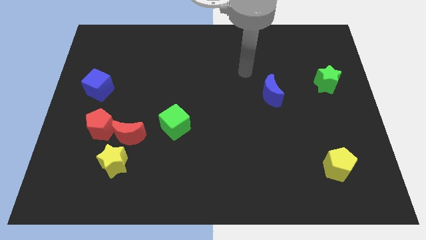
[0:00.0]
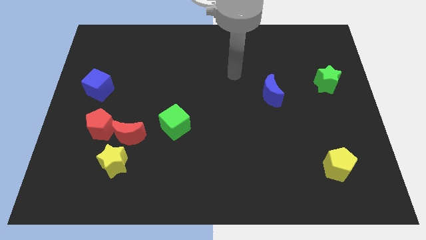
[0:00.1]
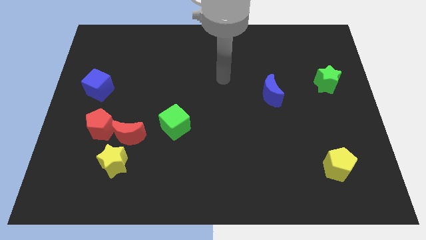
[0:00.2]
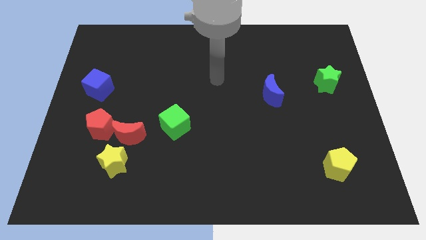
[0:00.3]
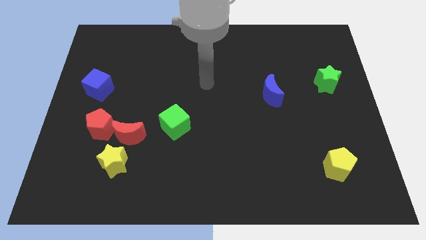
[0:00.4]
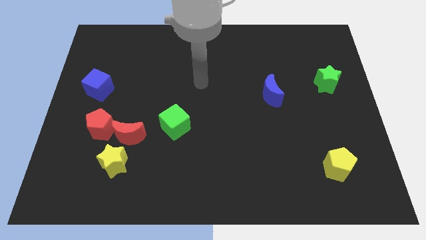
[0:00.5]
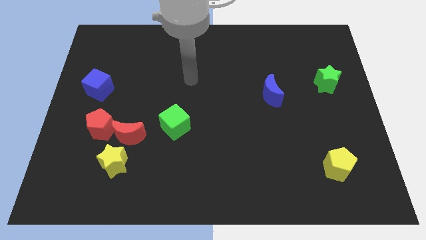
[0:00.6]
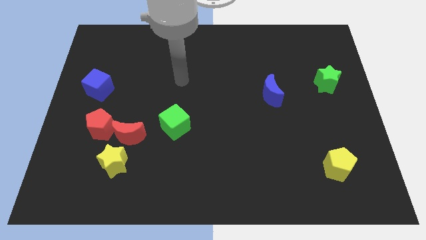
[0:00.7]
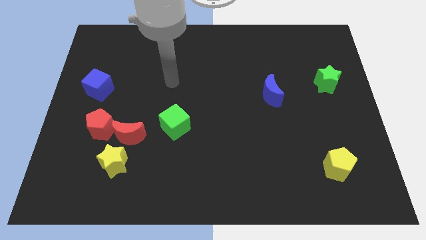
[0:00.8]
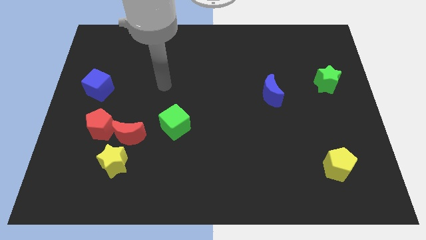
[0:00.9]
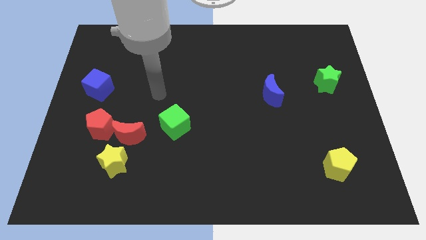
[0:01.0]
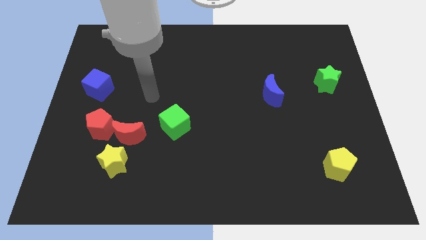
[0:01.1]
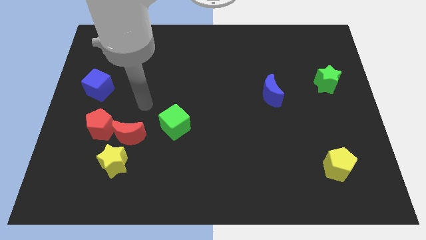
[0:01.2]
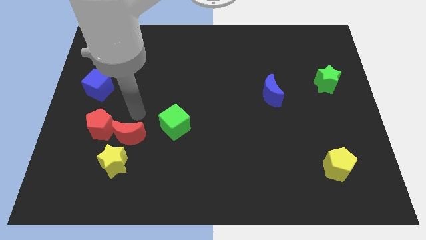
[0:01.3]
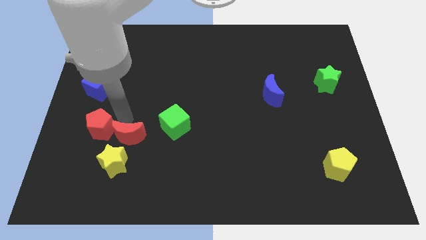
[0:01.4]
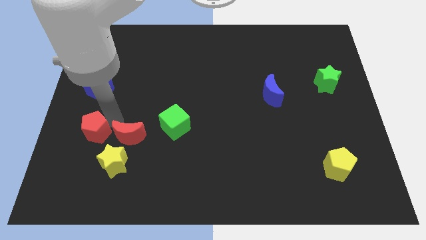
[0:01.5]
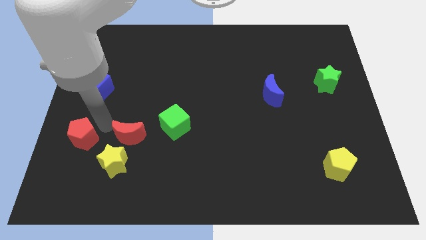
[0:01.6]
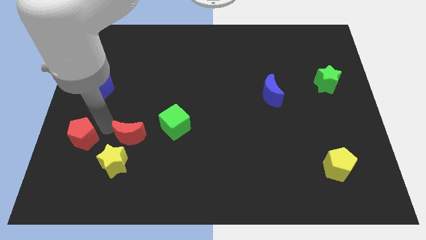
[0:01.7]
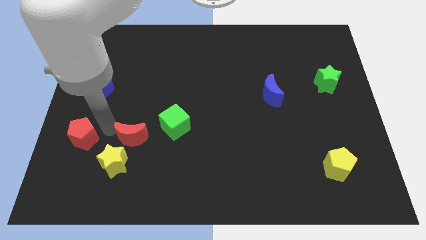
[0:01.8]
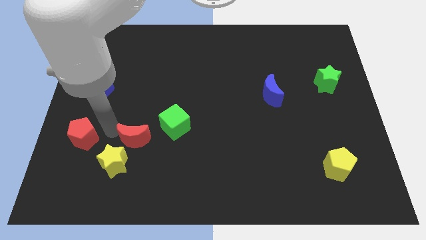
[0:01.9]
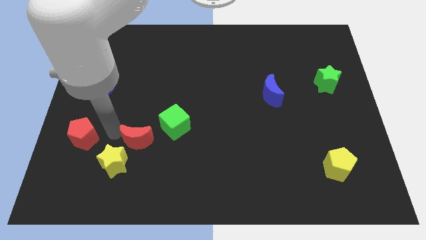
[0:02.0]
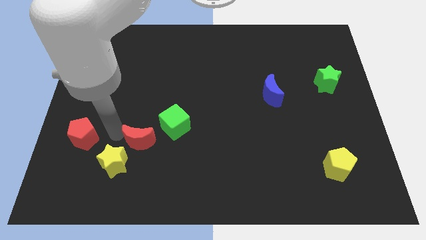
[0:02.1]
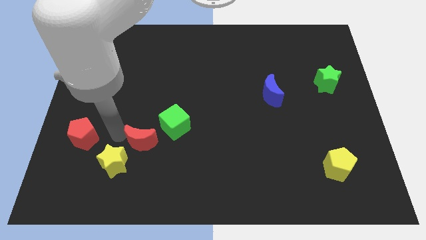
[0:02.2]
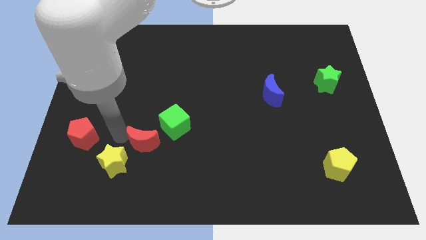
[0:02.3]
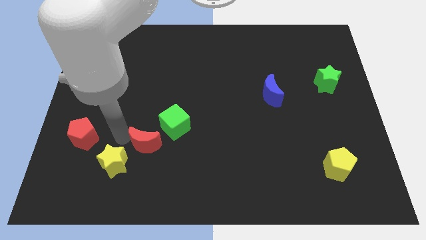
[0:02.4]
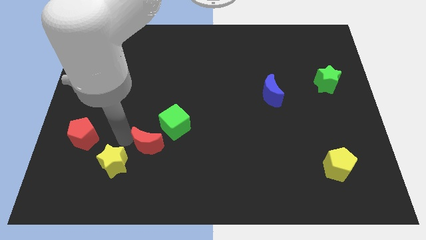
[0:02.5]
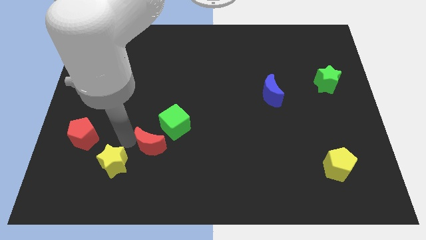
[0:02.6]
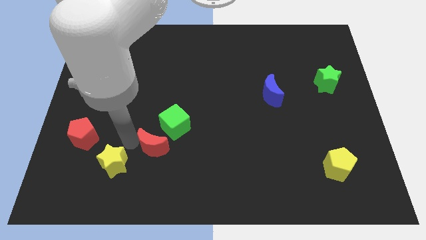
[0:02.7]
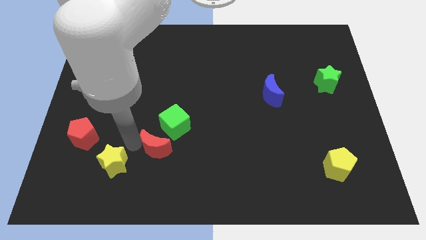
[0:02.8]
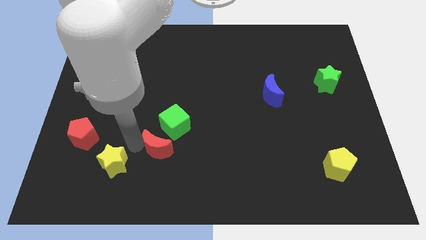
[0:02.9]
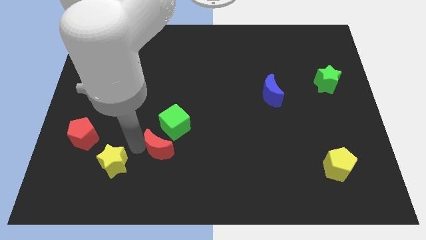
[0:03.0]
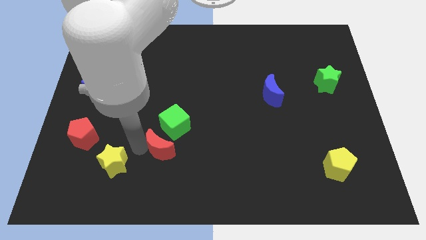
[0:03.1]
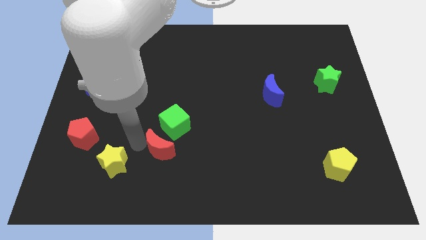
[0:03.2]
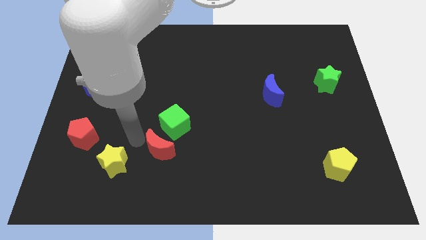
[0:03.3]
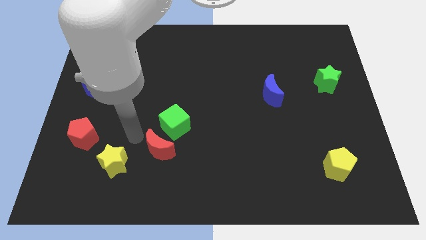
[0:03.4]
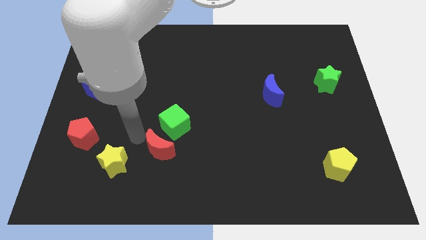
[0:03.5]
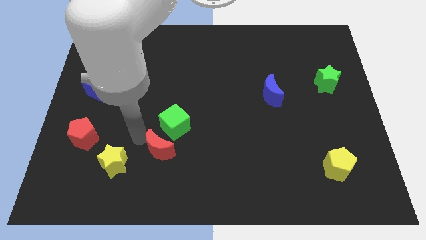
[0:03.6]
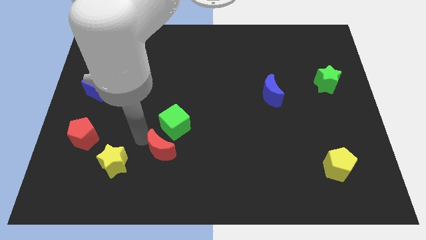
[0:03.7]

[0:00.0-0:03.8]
move the red moon to the right a little

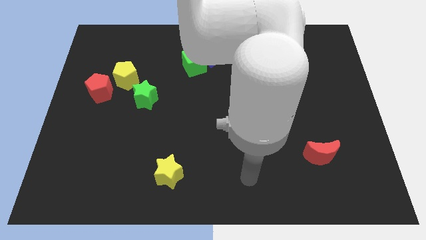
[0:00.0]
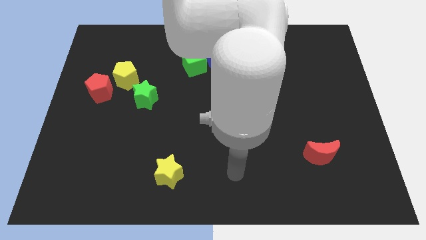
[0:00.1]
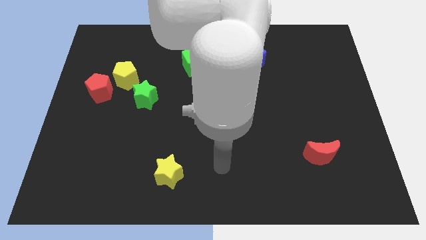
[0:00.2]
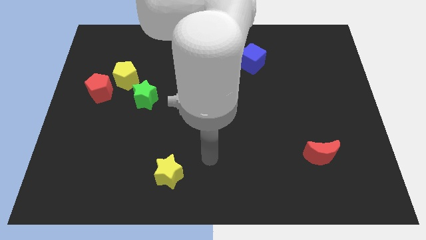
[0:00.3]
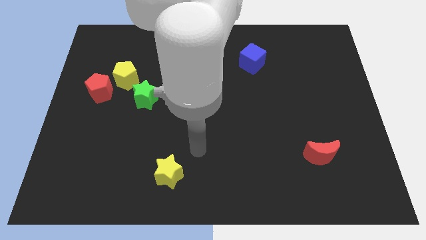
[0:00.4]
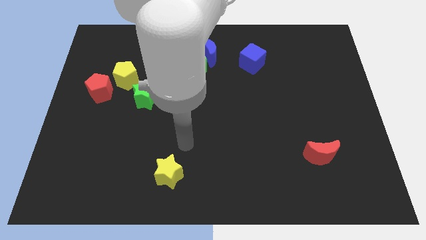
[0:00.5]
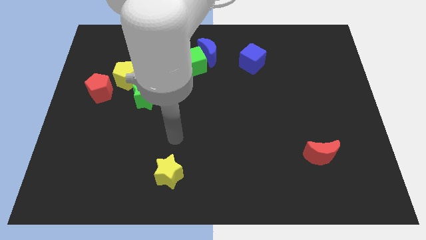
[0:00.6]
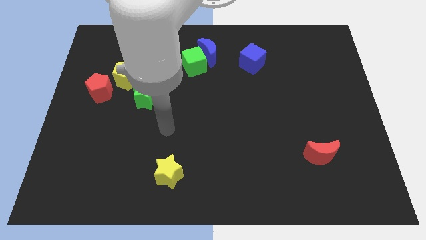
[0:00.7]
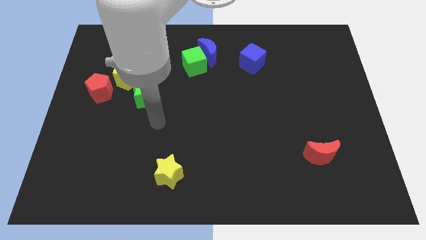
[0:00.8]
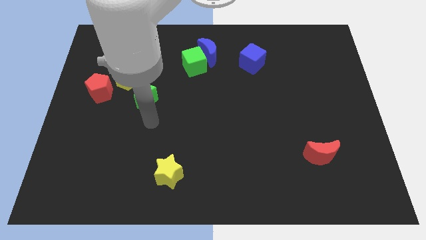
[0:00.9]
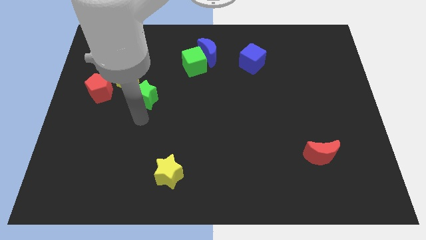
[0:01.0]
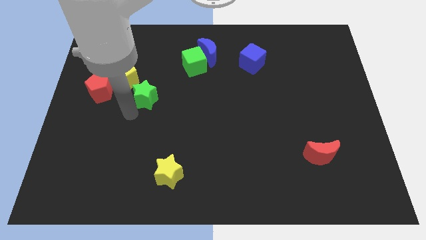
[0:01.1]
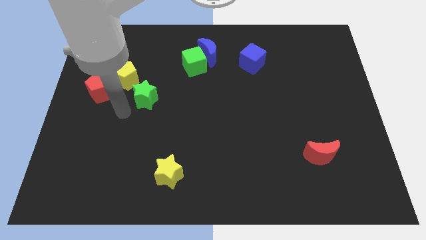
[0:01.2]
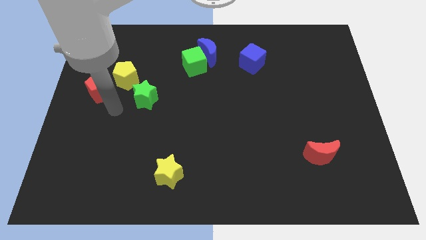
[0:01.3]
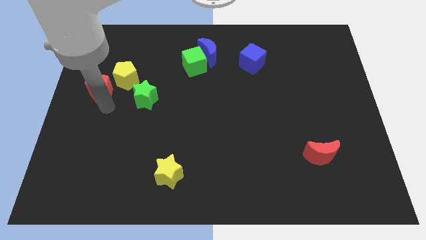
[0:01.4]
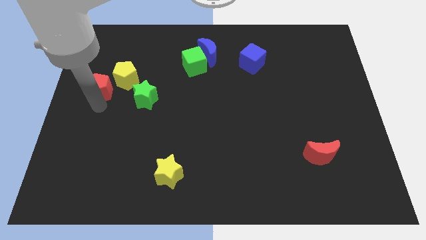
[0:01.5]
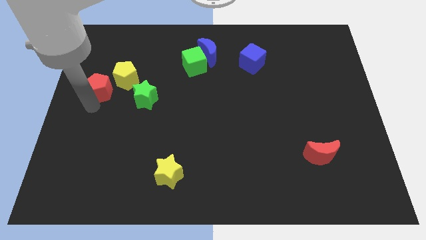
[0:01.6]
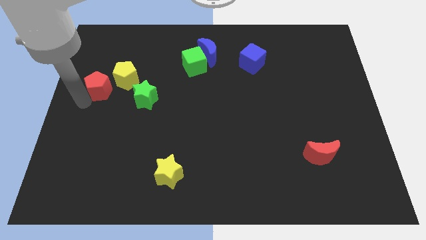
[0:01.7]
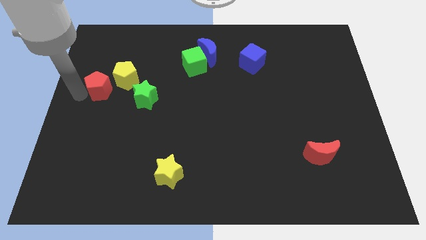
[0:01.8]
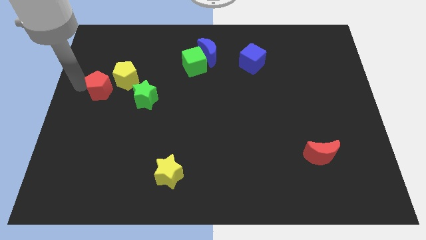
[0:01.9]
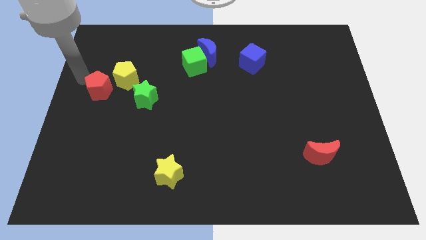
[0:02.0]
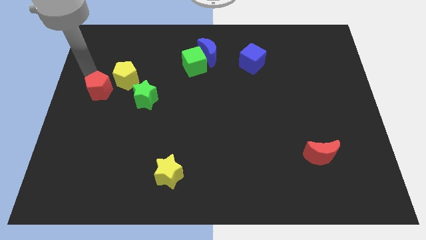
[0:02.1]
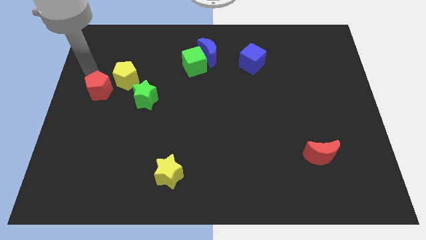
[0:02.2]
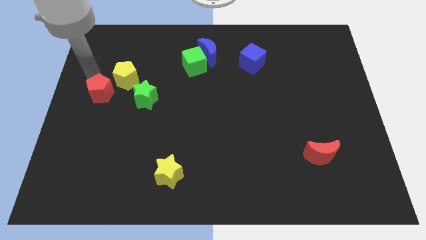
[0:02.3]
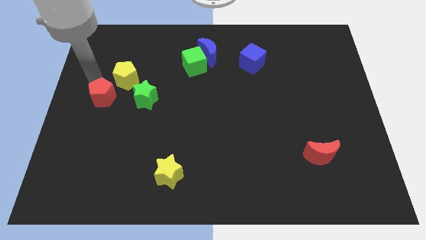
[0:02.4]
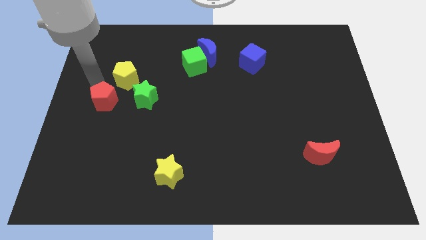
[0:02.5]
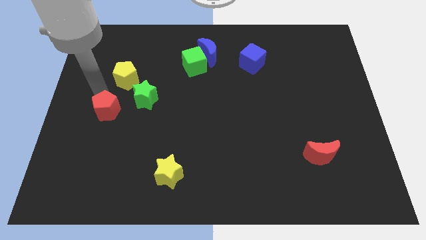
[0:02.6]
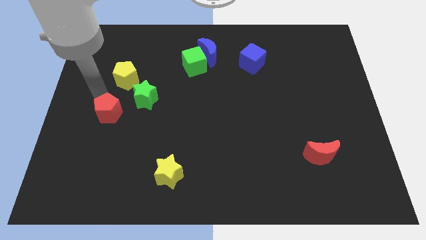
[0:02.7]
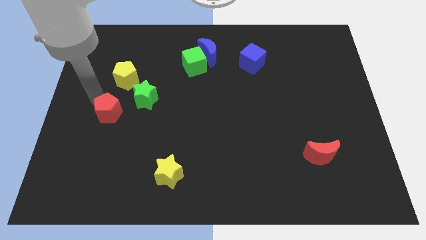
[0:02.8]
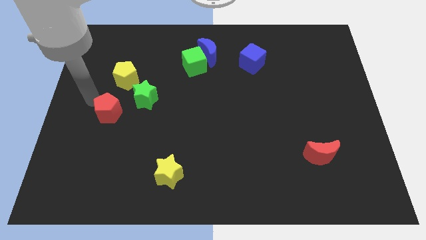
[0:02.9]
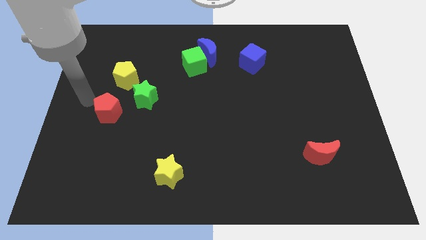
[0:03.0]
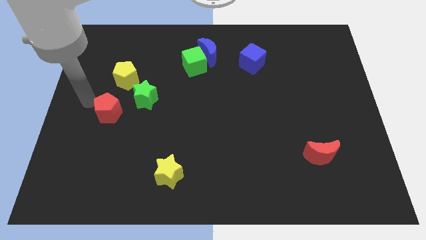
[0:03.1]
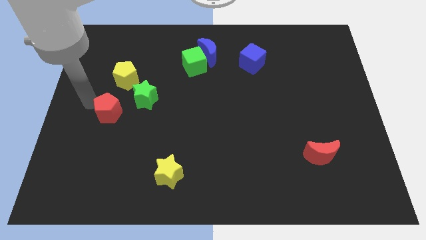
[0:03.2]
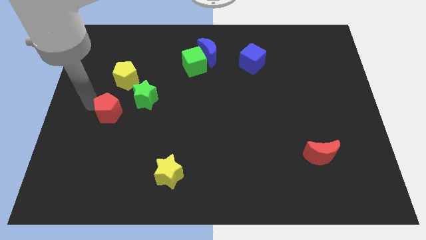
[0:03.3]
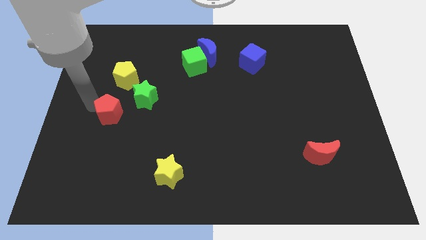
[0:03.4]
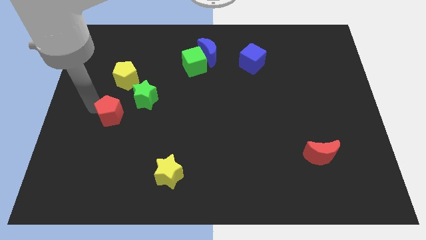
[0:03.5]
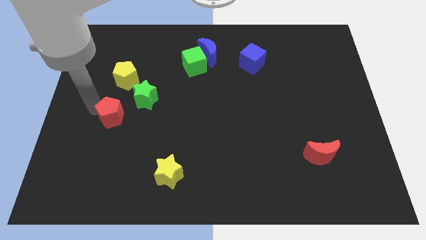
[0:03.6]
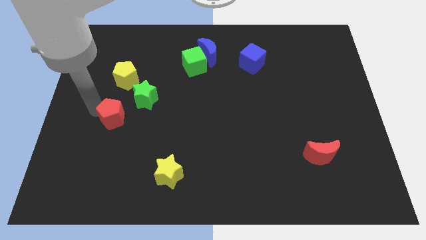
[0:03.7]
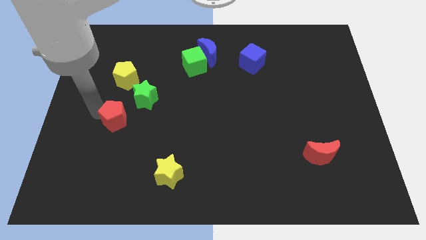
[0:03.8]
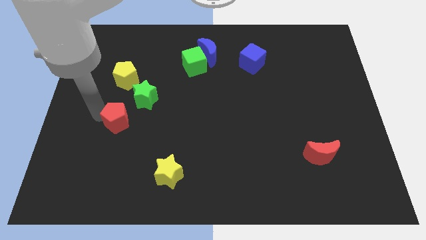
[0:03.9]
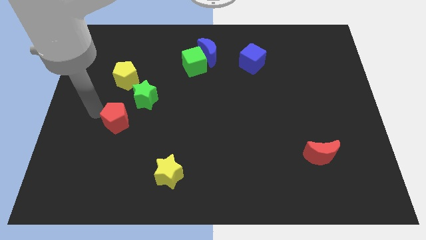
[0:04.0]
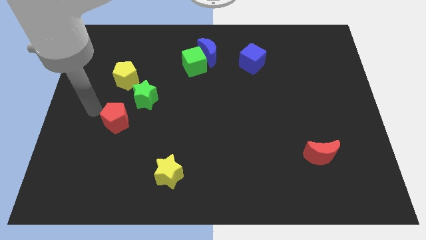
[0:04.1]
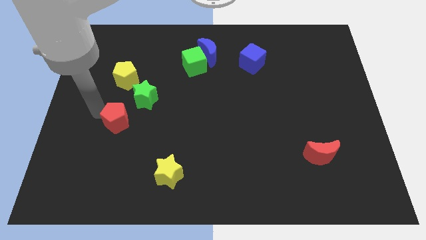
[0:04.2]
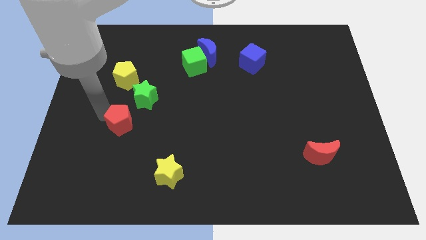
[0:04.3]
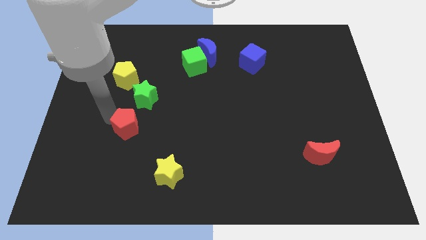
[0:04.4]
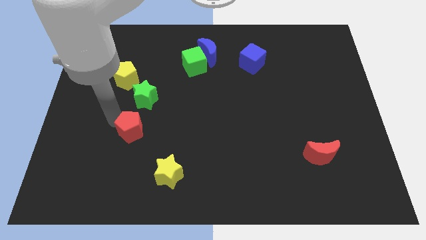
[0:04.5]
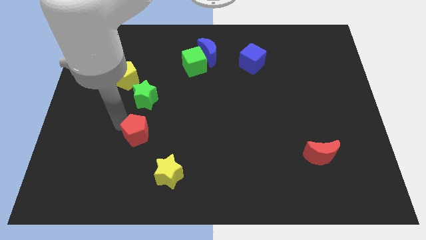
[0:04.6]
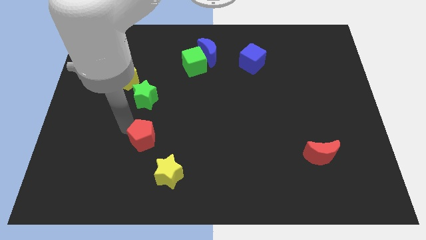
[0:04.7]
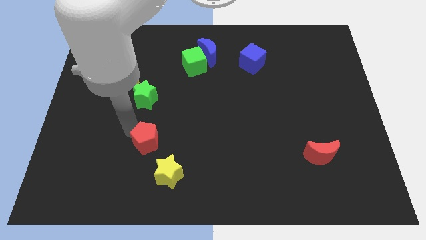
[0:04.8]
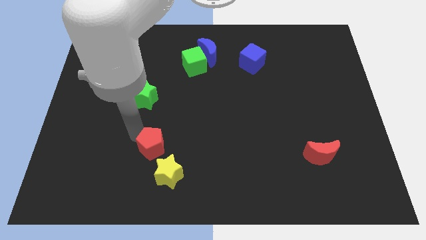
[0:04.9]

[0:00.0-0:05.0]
push the red pentagon downwards and to the right diagonally
